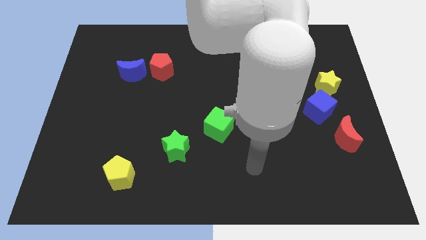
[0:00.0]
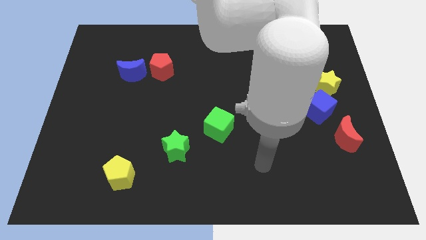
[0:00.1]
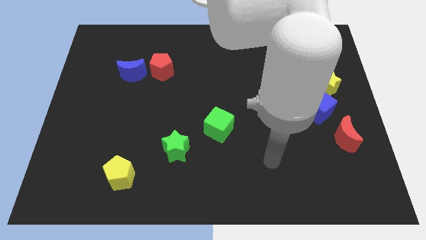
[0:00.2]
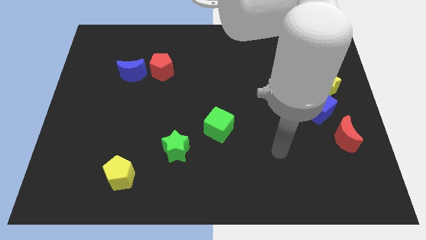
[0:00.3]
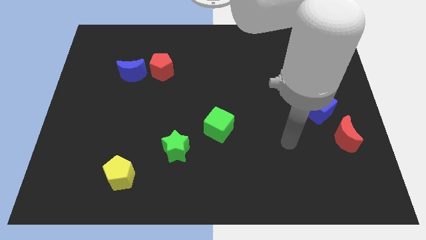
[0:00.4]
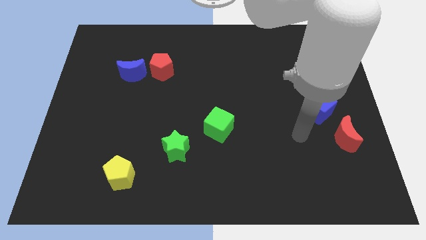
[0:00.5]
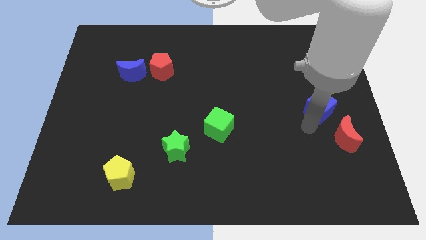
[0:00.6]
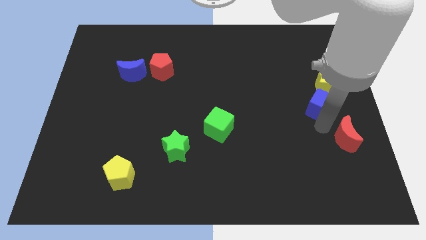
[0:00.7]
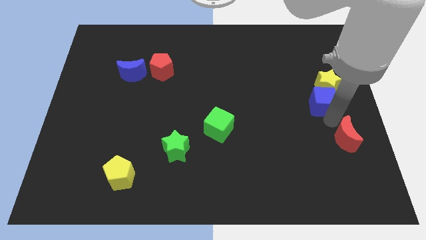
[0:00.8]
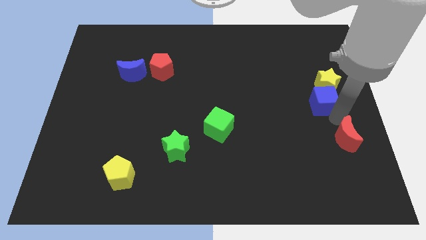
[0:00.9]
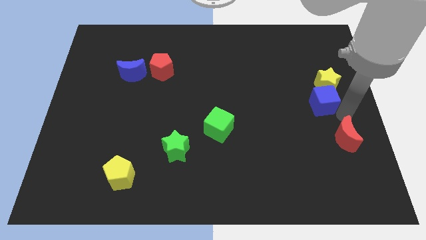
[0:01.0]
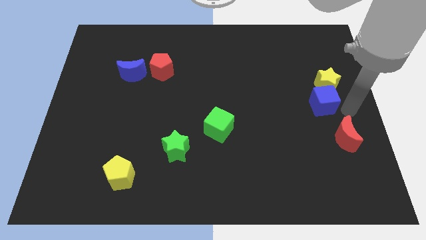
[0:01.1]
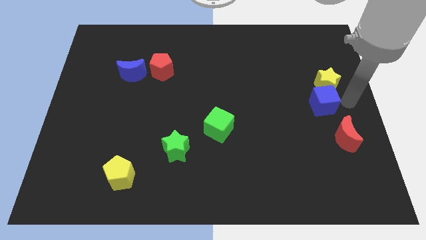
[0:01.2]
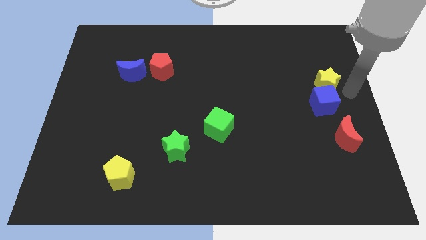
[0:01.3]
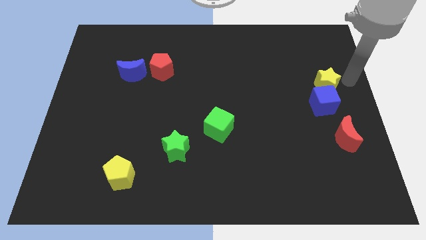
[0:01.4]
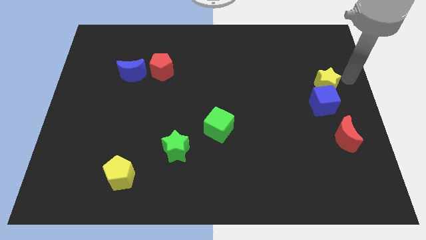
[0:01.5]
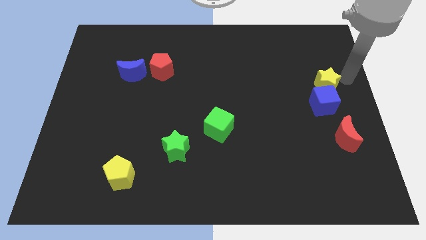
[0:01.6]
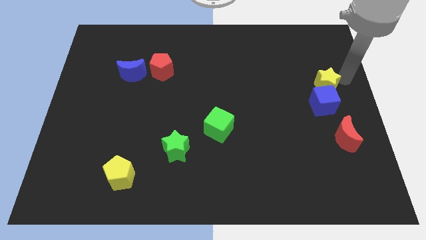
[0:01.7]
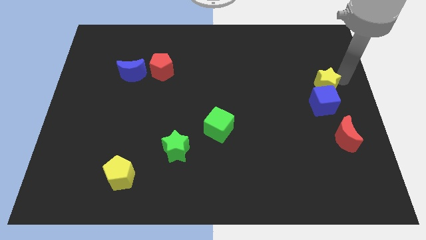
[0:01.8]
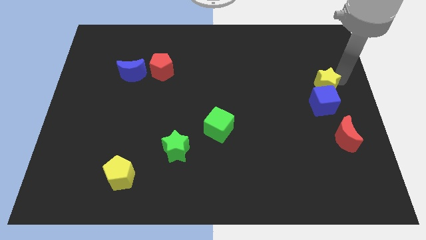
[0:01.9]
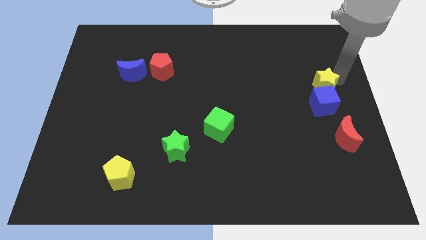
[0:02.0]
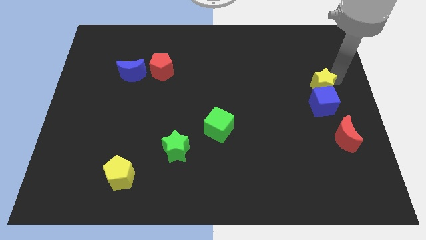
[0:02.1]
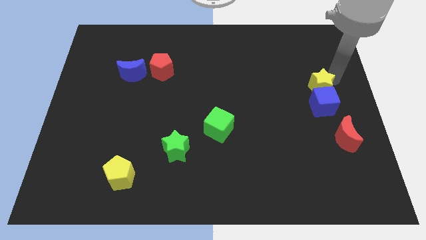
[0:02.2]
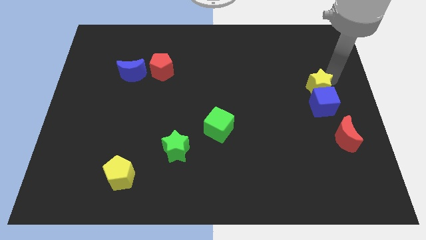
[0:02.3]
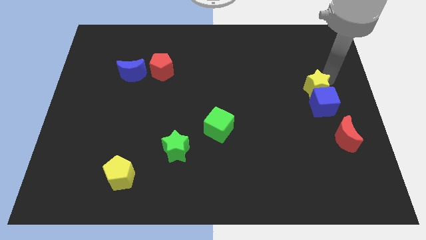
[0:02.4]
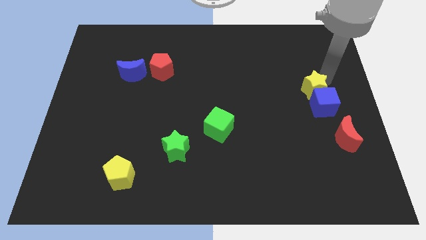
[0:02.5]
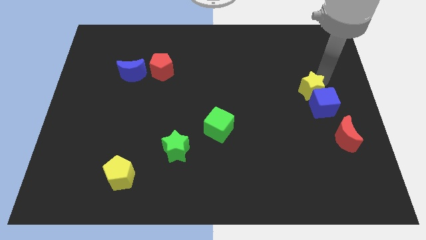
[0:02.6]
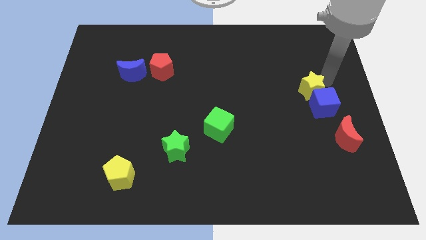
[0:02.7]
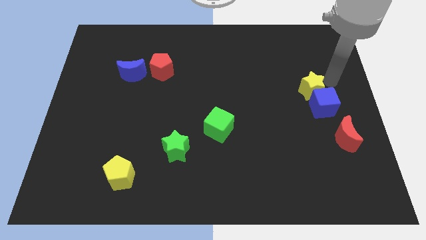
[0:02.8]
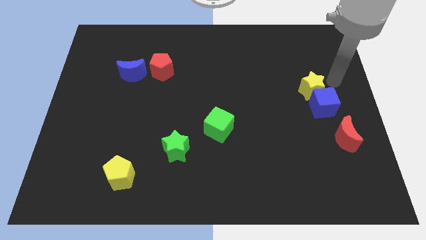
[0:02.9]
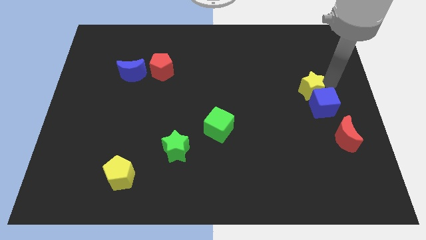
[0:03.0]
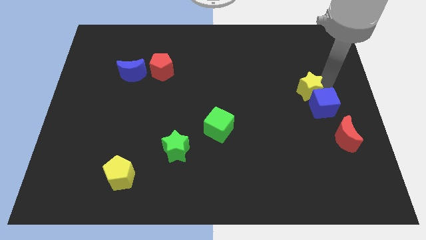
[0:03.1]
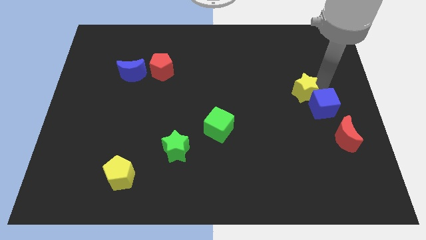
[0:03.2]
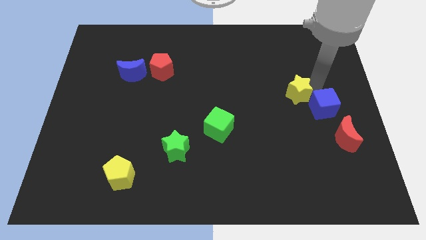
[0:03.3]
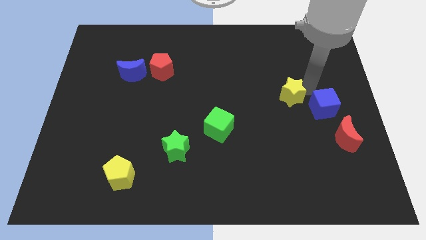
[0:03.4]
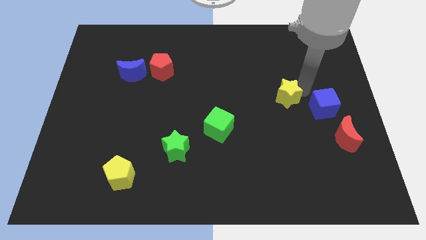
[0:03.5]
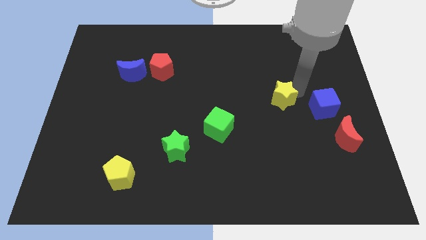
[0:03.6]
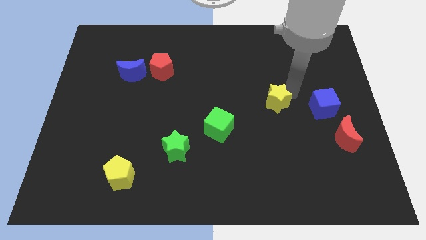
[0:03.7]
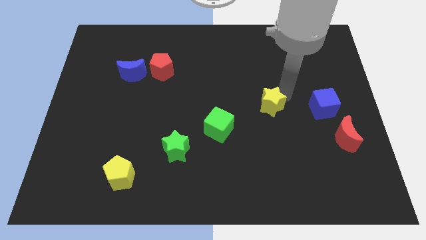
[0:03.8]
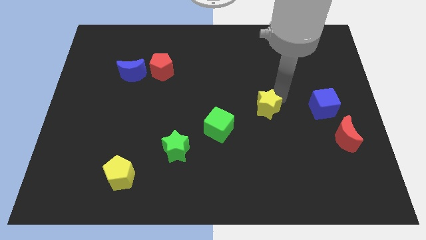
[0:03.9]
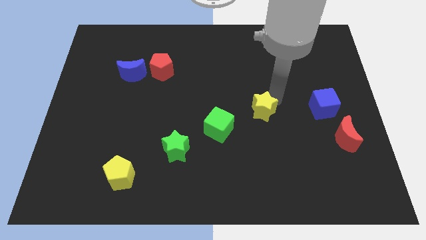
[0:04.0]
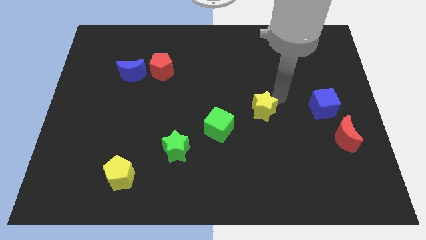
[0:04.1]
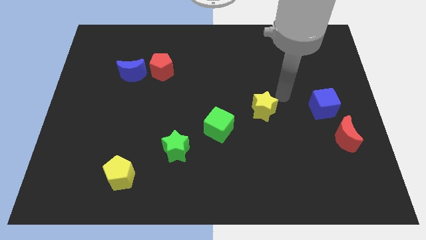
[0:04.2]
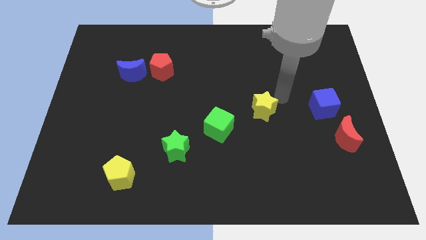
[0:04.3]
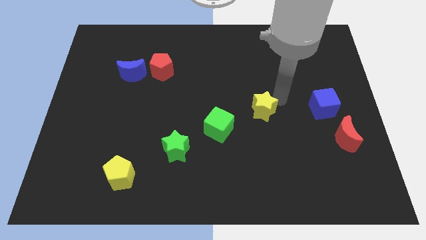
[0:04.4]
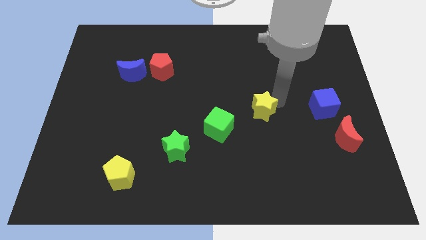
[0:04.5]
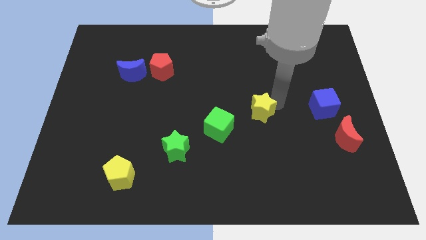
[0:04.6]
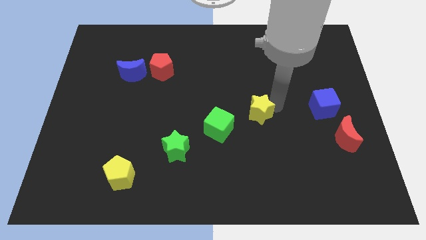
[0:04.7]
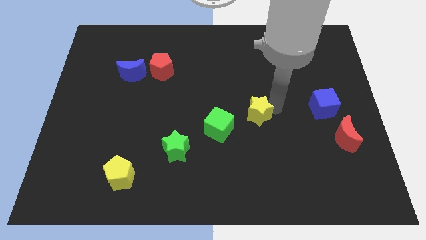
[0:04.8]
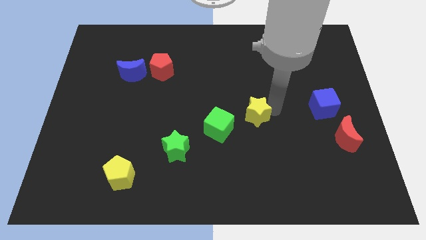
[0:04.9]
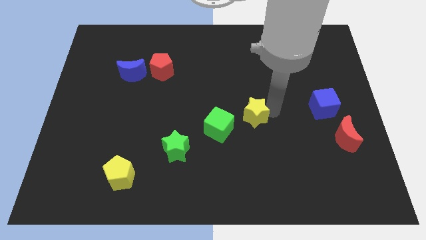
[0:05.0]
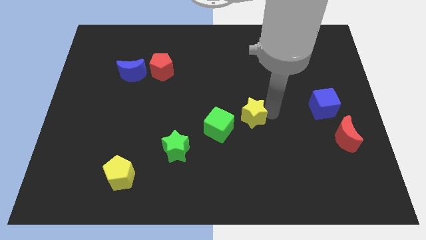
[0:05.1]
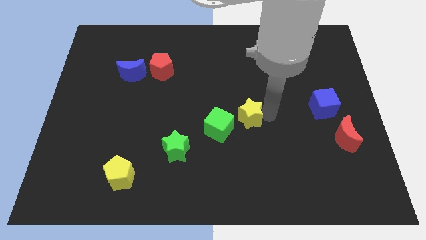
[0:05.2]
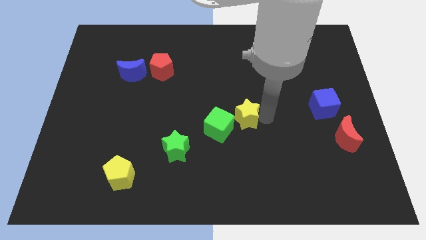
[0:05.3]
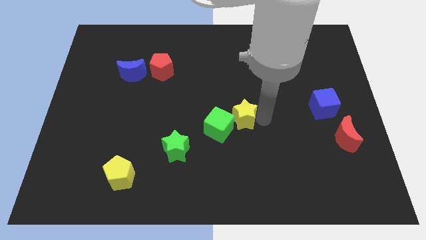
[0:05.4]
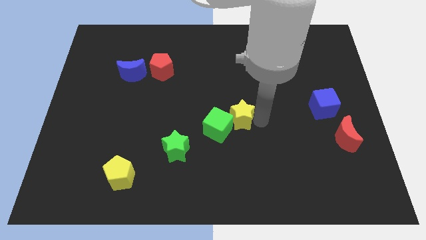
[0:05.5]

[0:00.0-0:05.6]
put the yellow star close to the green cube

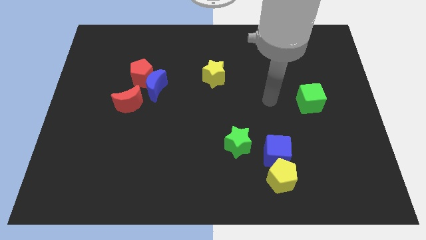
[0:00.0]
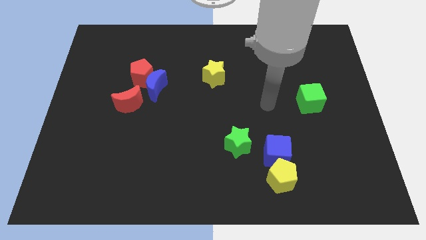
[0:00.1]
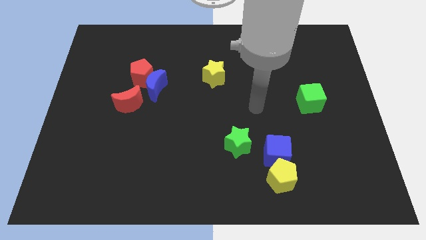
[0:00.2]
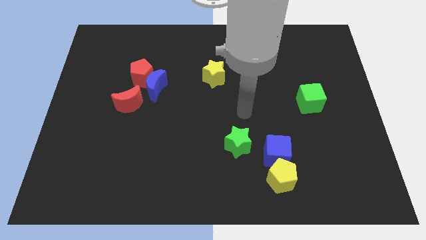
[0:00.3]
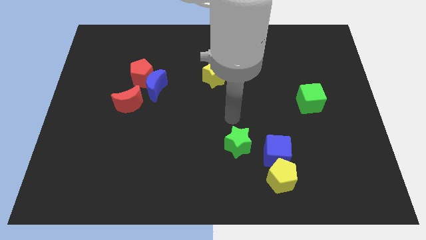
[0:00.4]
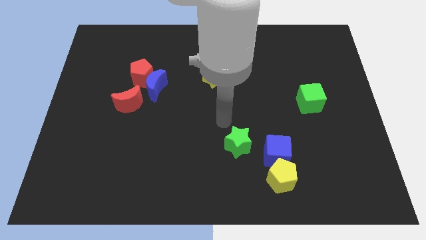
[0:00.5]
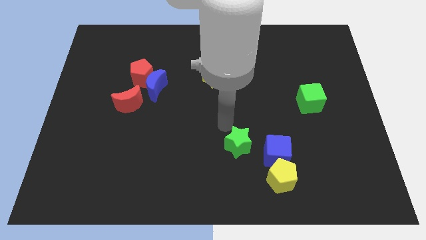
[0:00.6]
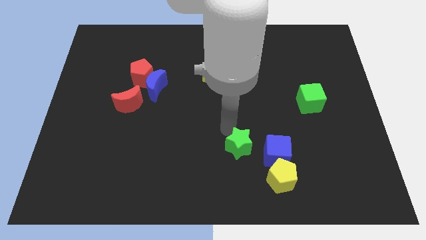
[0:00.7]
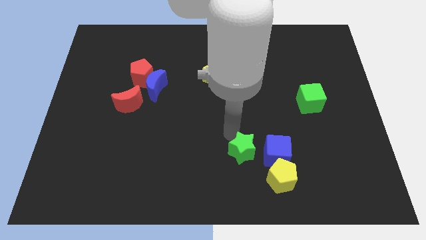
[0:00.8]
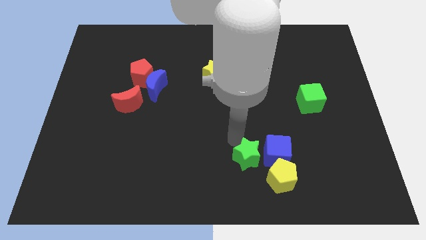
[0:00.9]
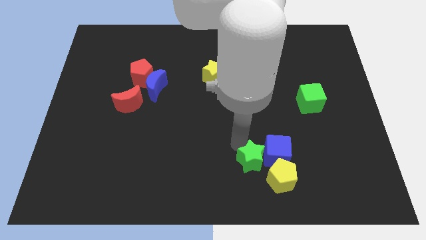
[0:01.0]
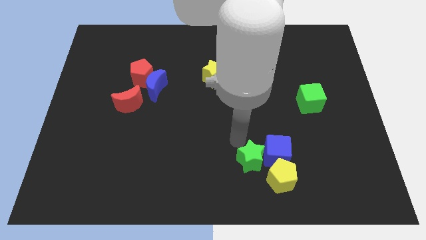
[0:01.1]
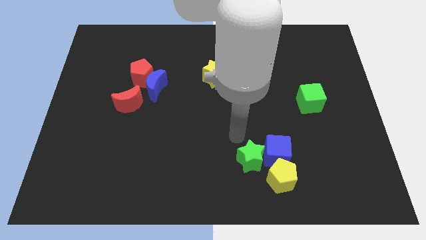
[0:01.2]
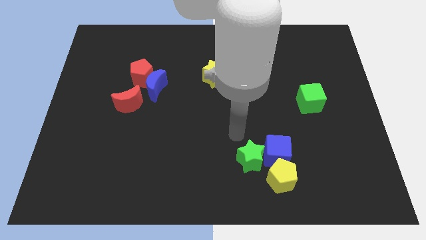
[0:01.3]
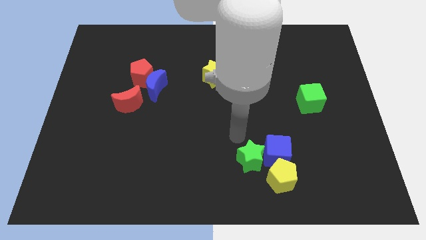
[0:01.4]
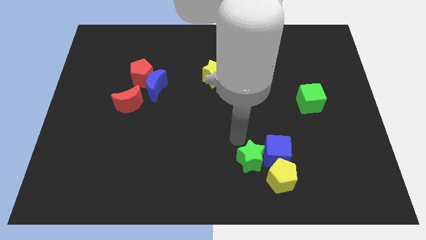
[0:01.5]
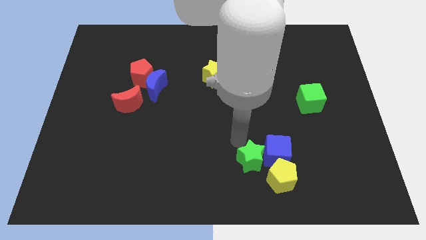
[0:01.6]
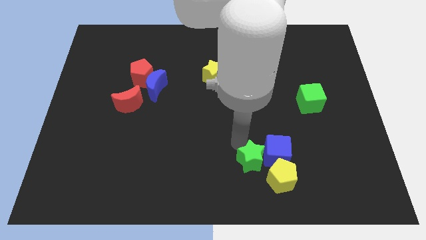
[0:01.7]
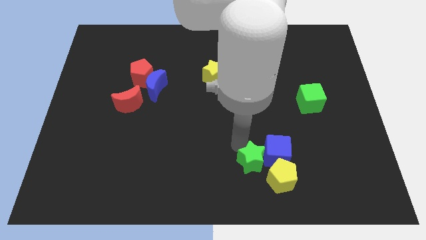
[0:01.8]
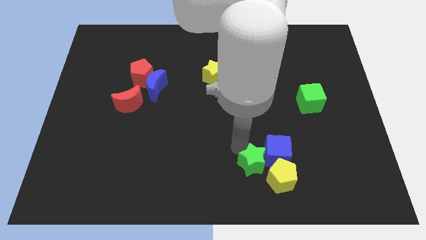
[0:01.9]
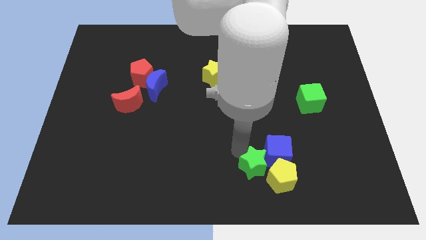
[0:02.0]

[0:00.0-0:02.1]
push the green star next to the yellow pentagon

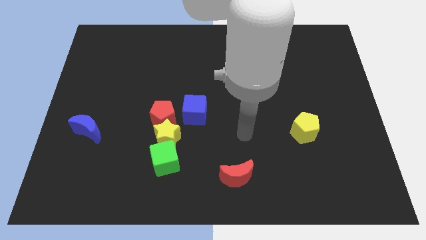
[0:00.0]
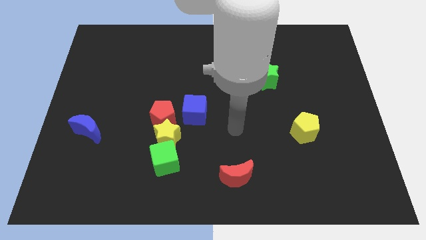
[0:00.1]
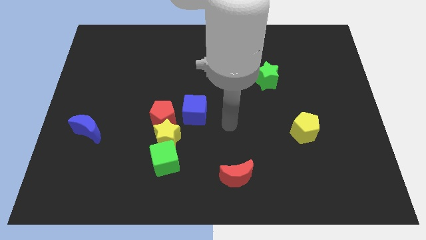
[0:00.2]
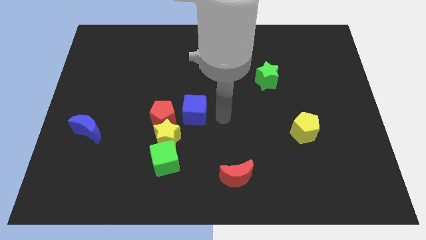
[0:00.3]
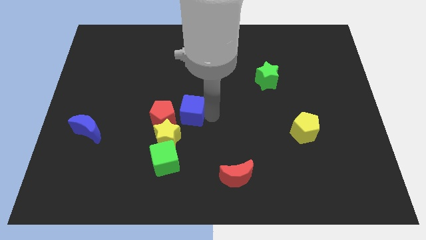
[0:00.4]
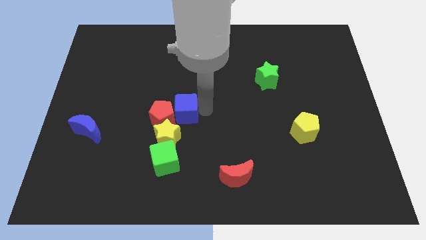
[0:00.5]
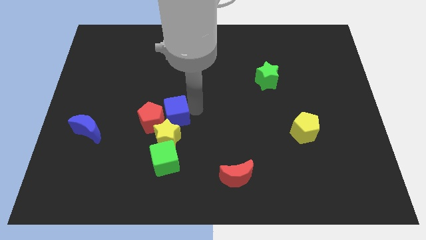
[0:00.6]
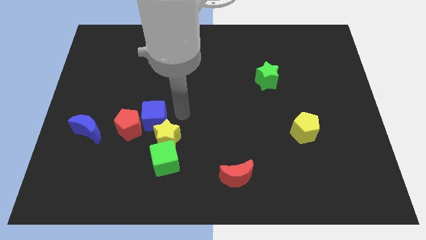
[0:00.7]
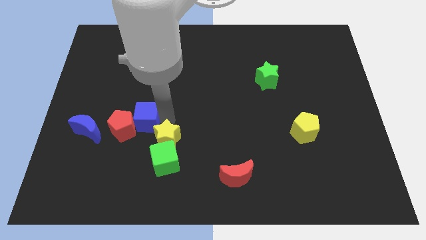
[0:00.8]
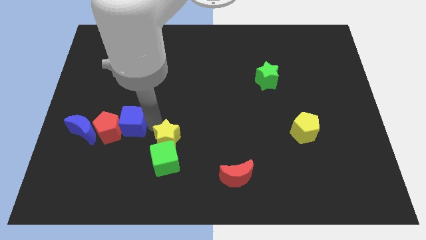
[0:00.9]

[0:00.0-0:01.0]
push the red pentagon towards the blue moon
